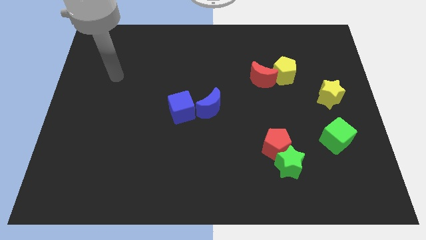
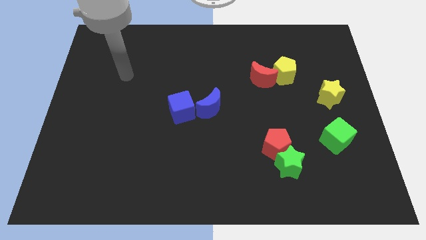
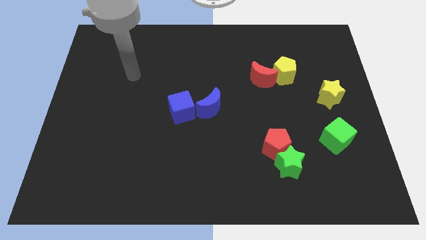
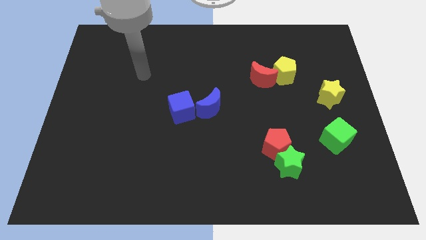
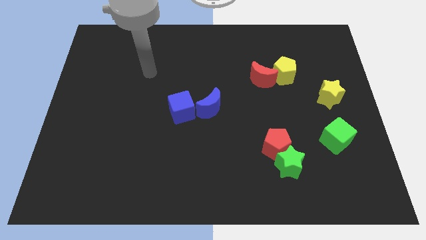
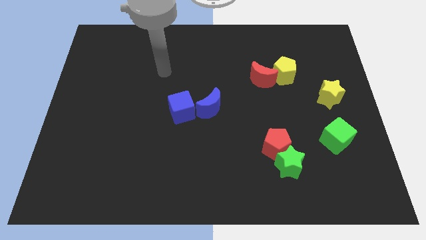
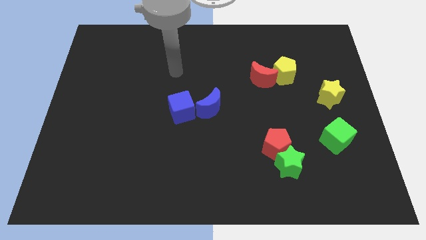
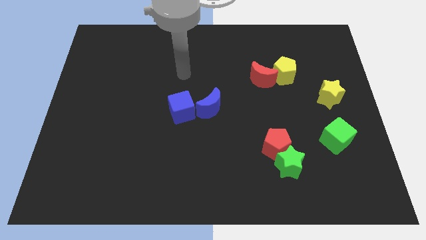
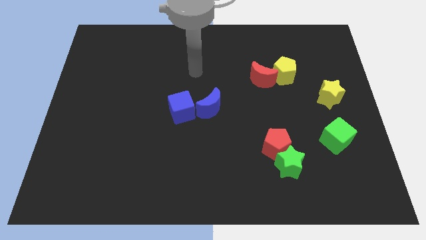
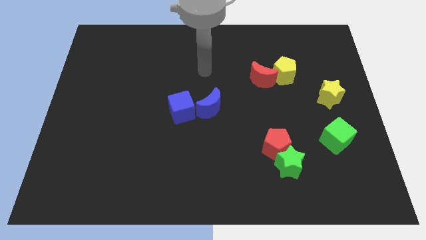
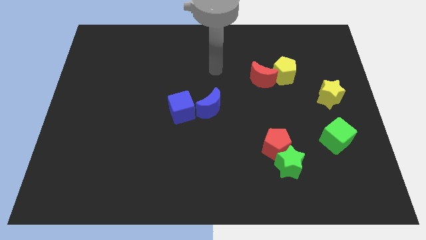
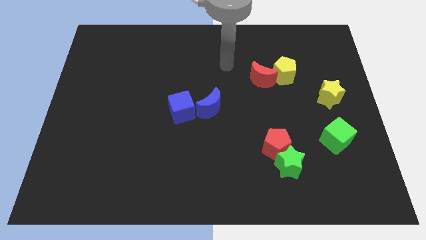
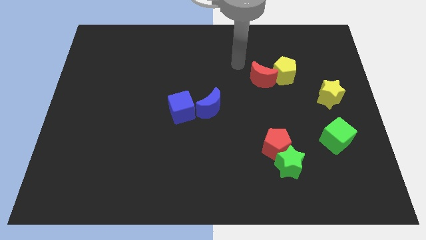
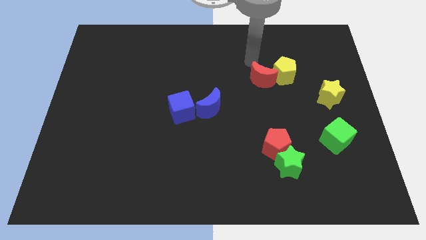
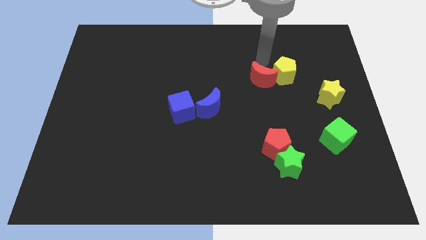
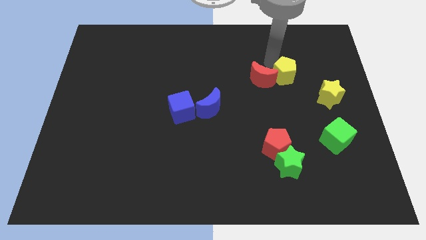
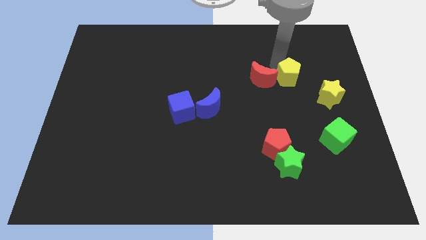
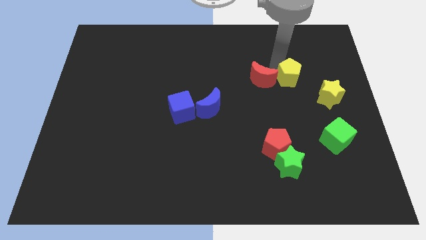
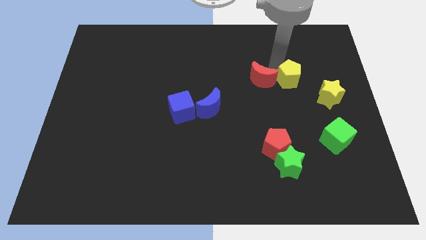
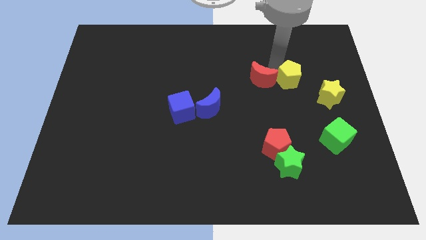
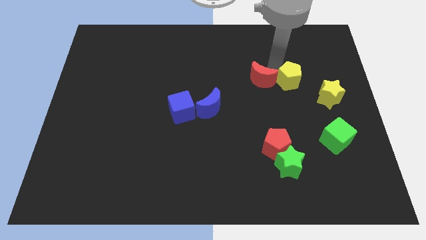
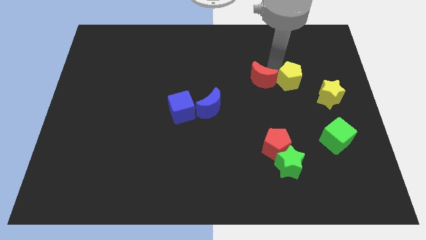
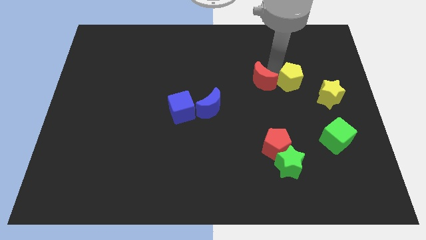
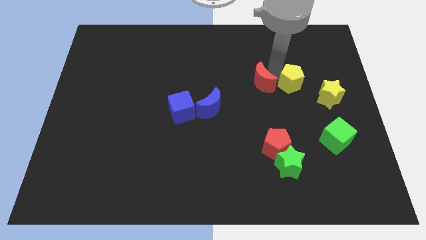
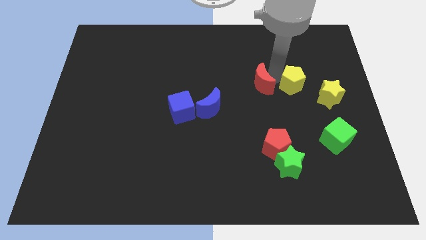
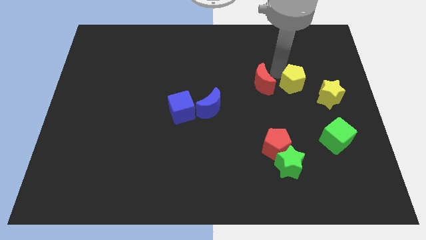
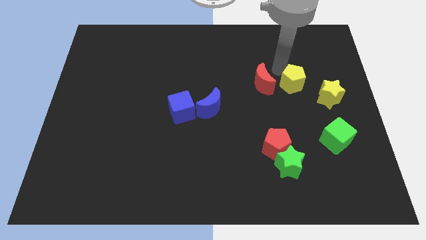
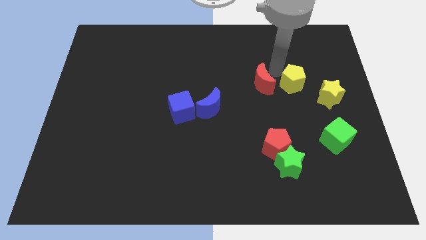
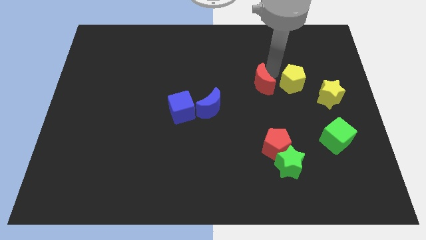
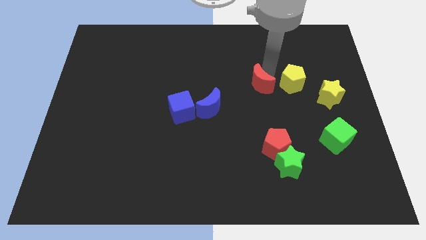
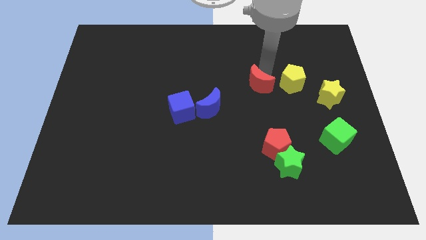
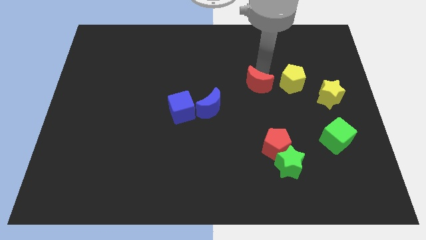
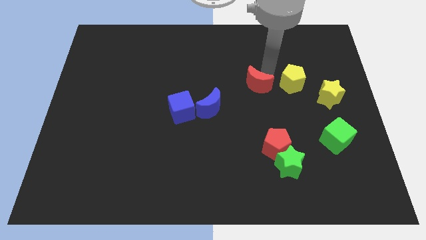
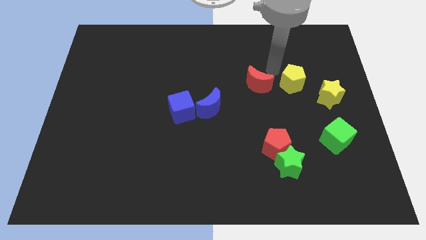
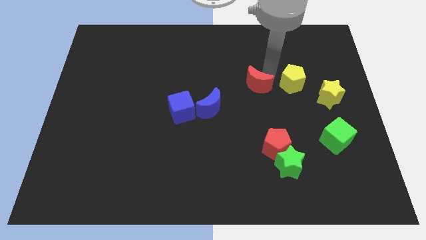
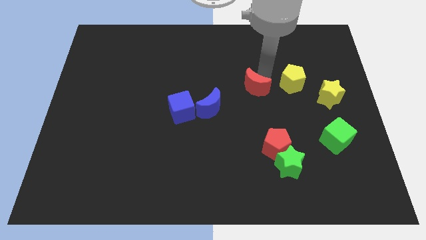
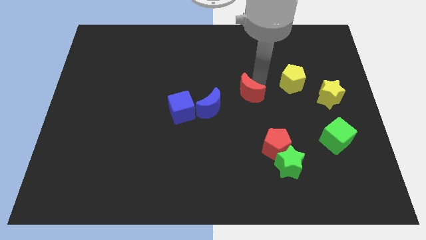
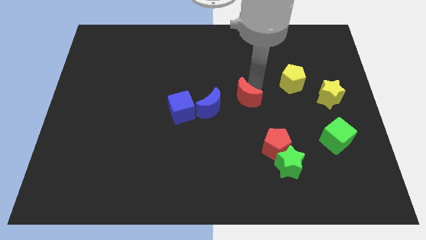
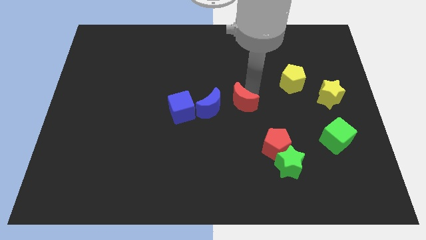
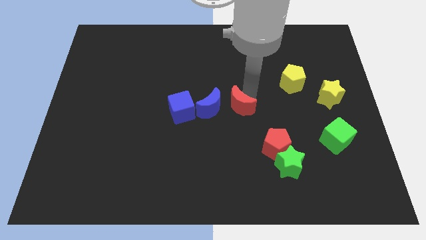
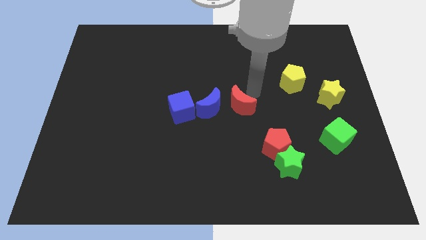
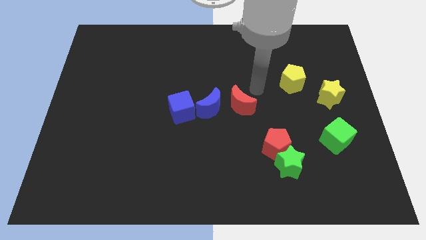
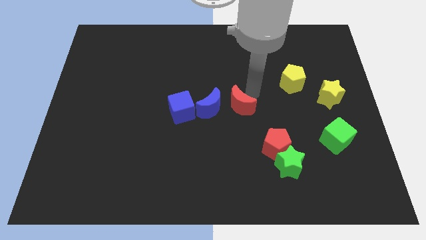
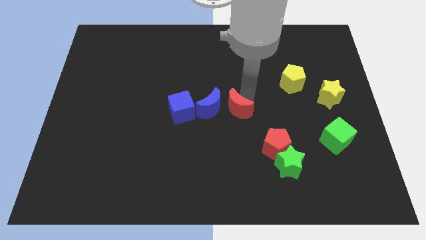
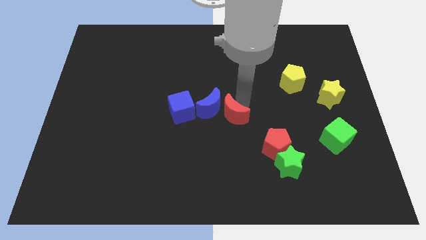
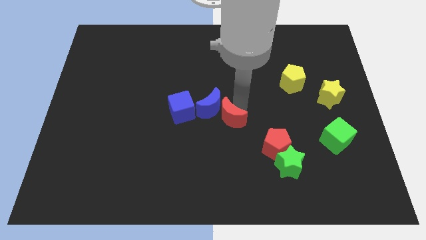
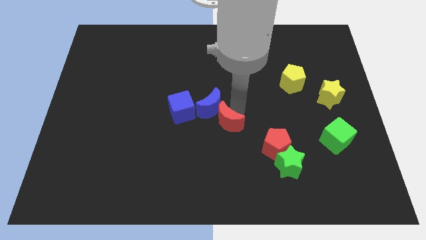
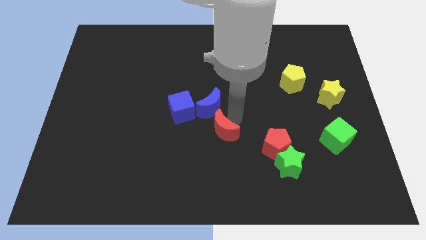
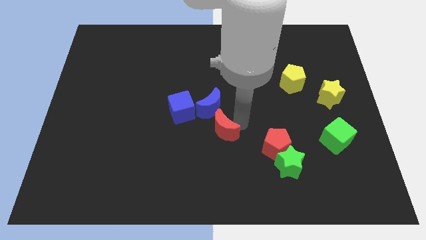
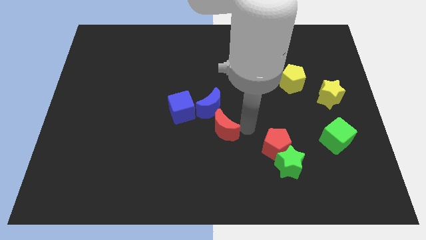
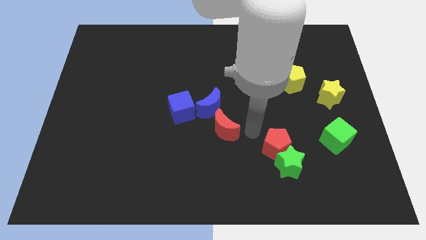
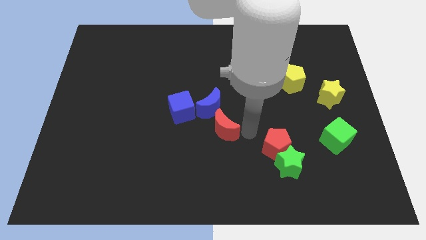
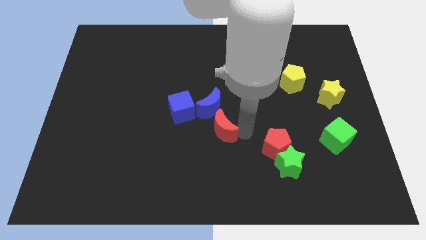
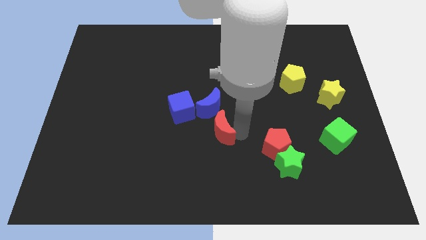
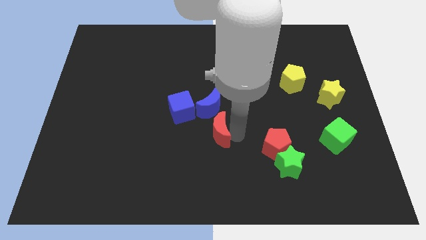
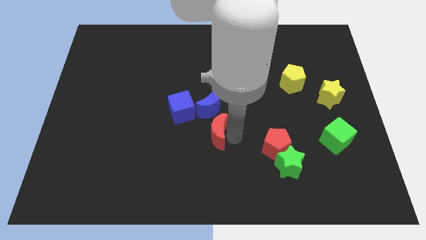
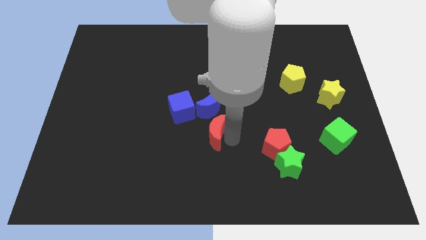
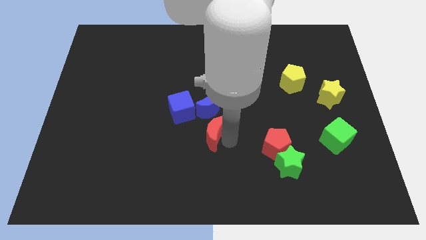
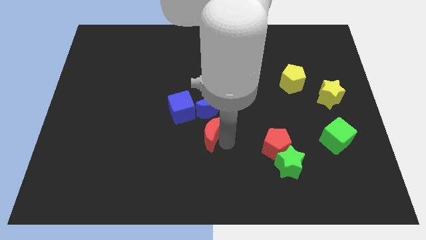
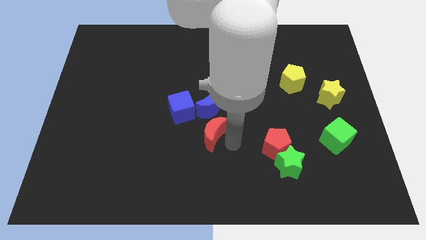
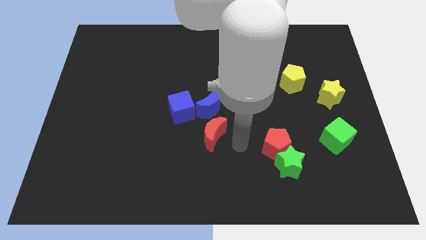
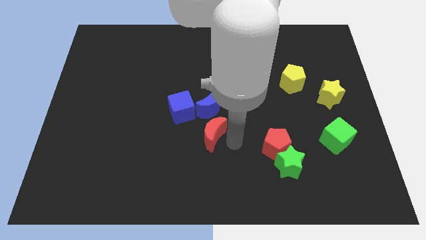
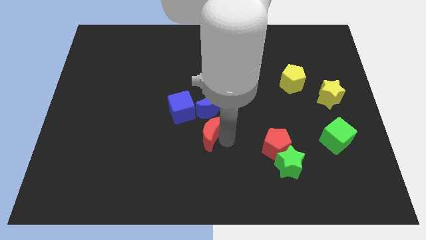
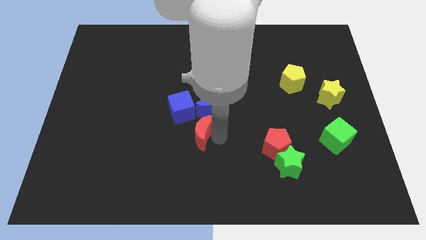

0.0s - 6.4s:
move the red moon to the bottom left side of the blue moon
